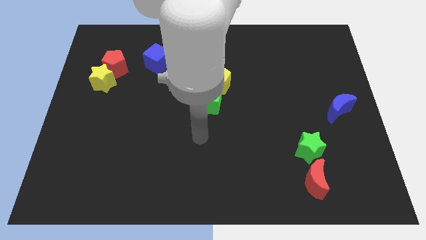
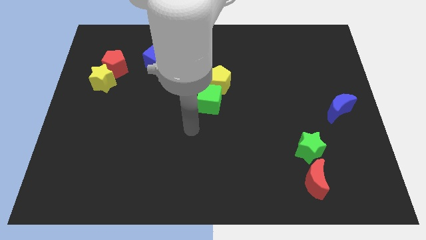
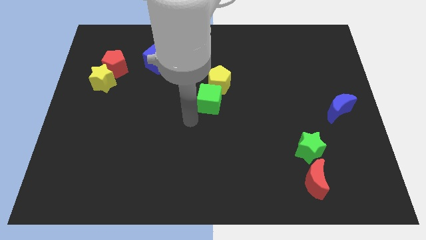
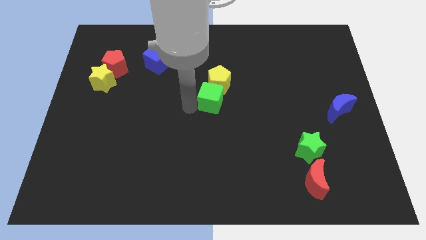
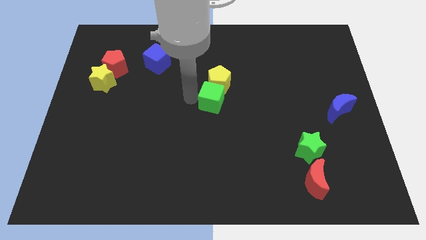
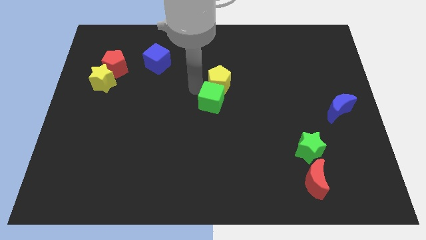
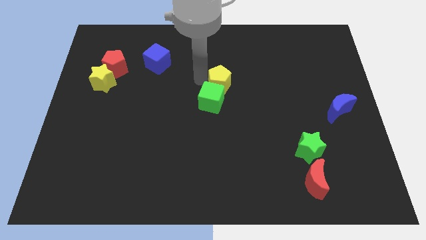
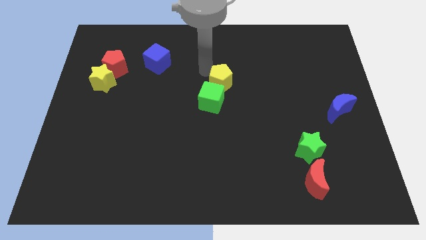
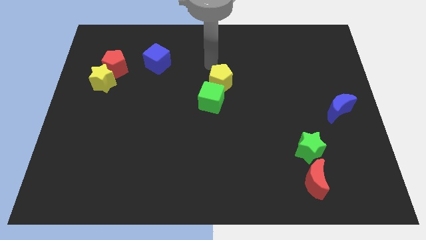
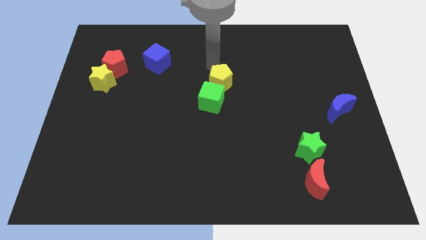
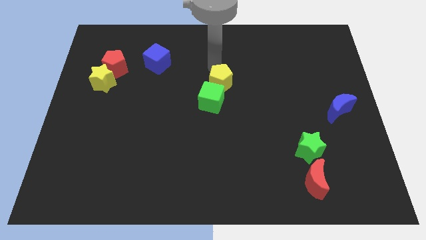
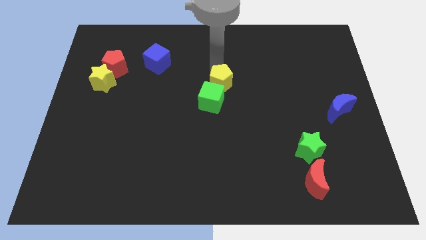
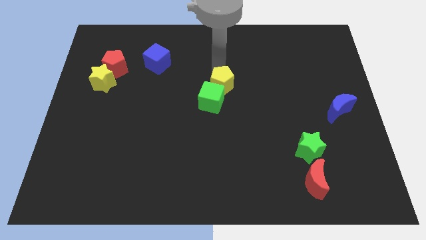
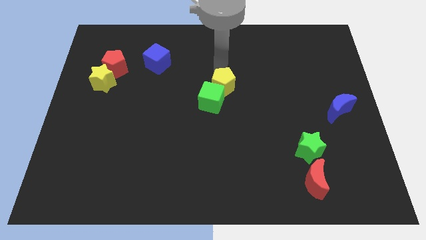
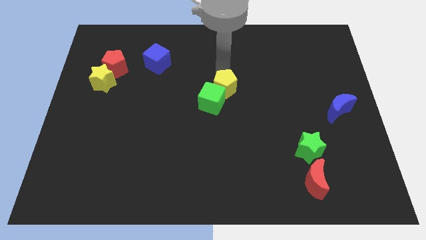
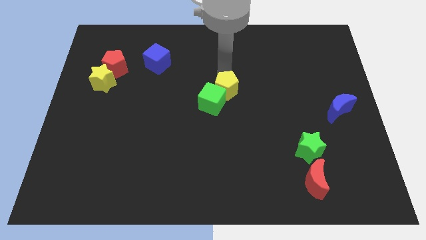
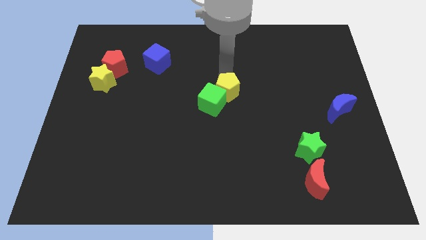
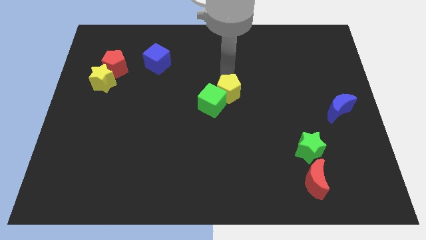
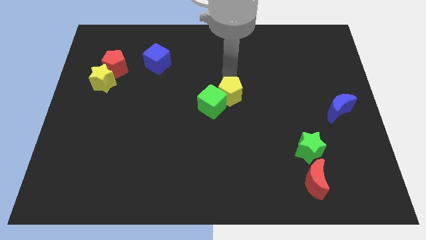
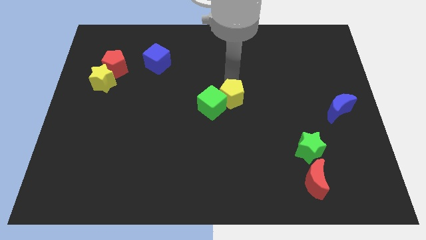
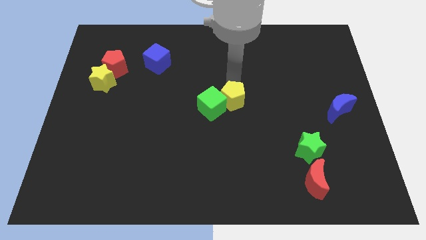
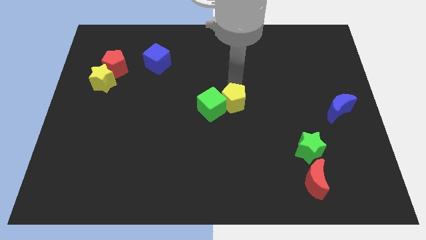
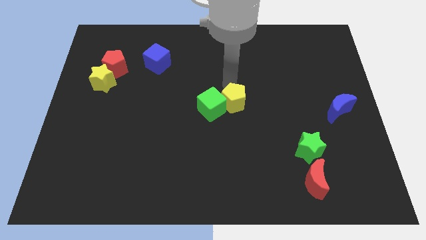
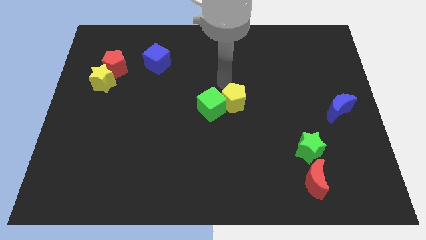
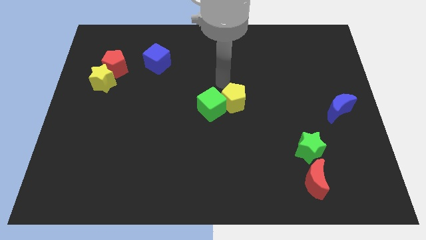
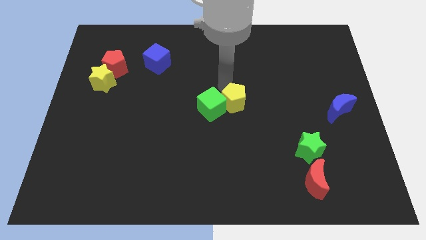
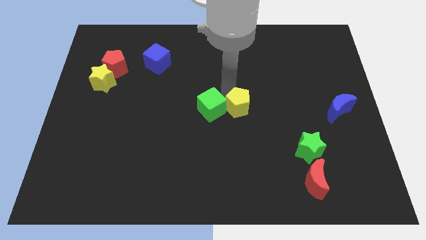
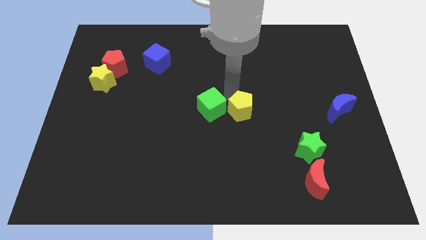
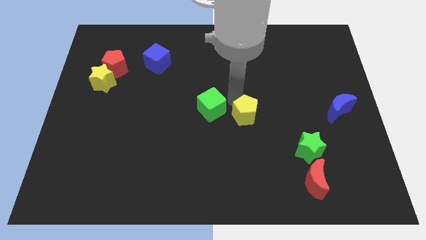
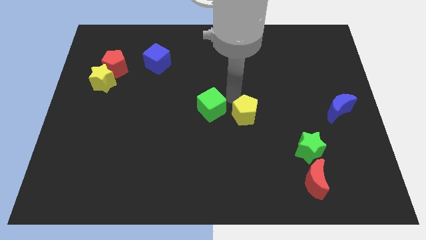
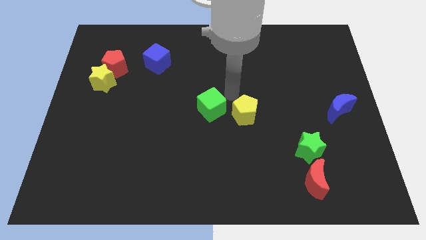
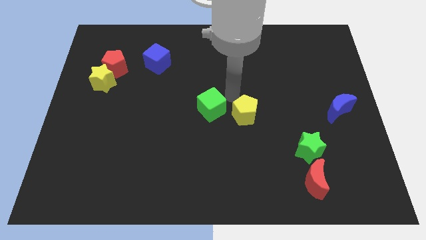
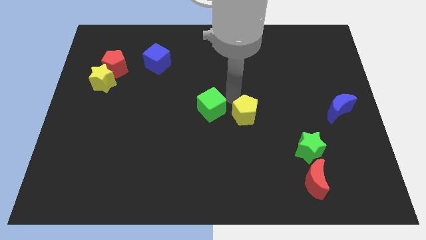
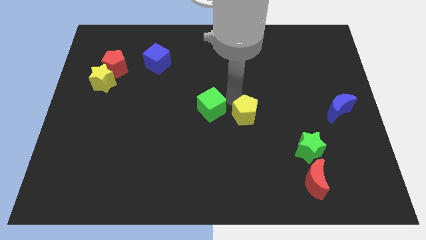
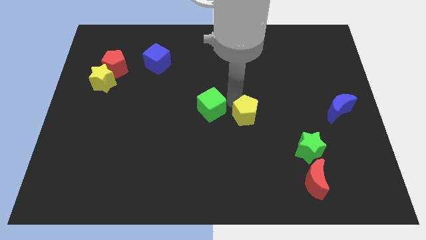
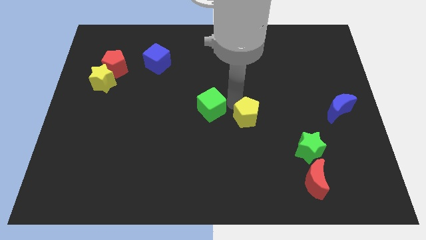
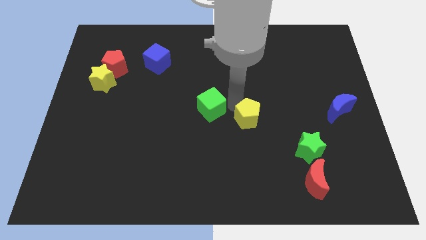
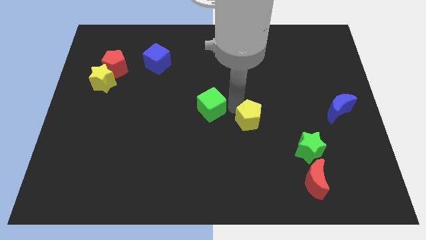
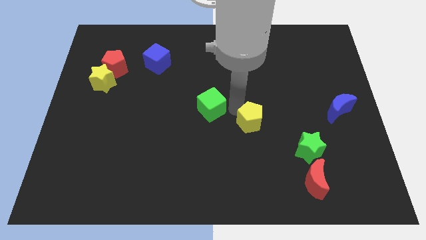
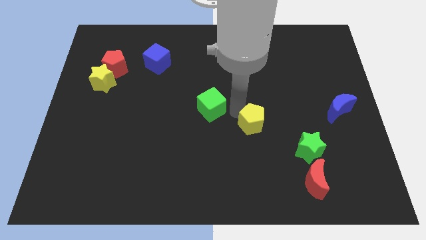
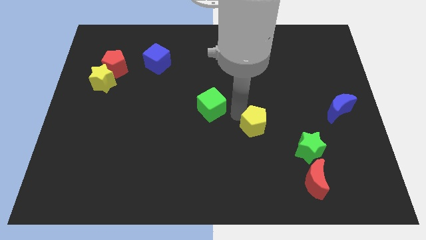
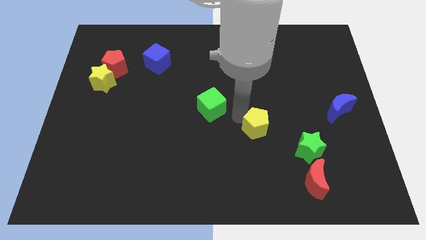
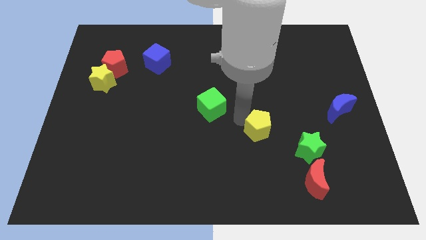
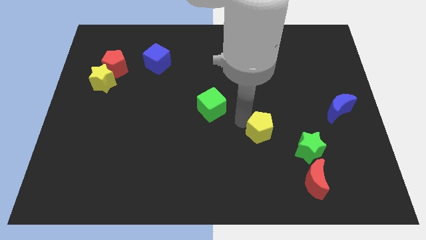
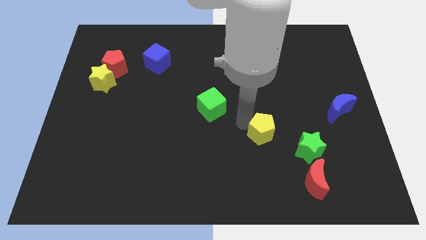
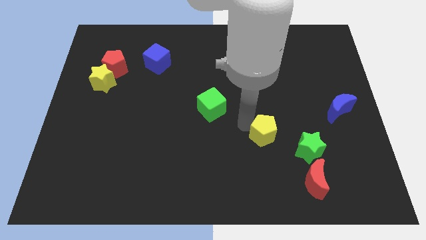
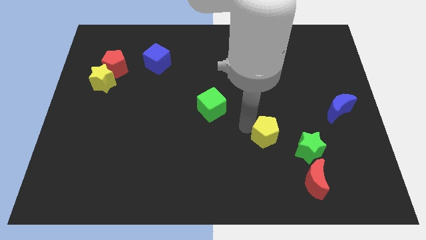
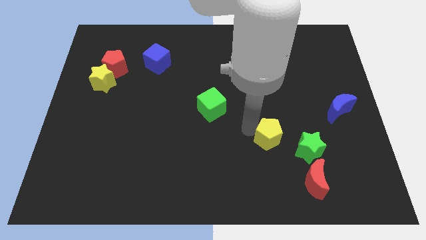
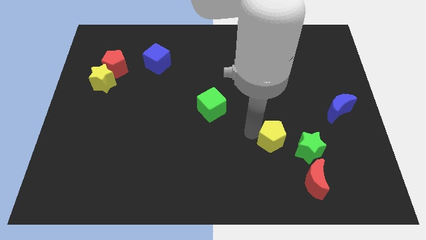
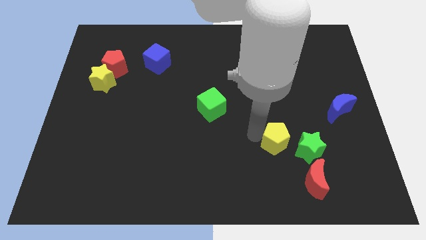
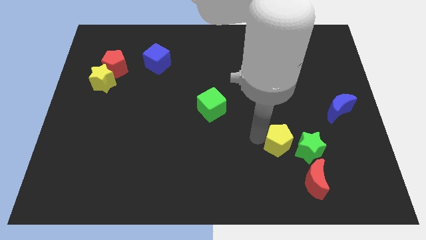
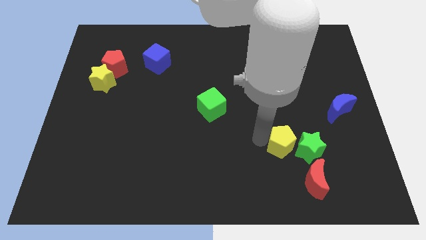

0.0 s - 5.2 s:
put the yellow pentagon towards the green star

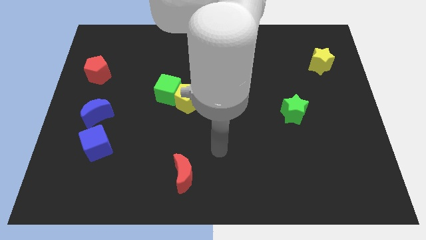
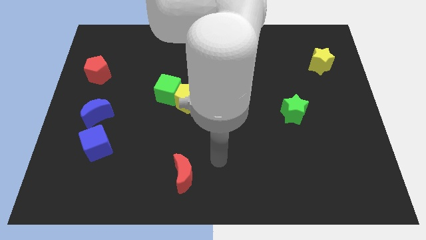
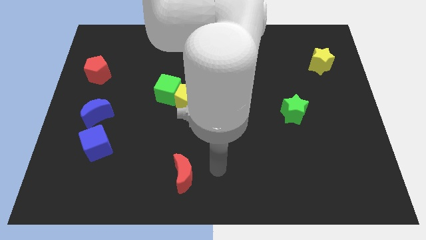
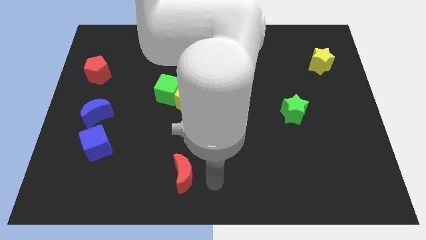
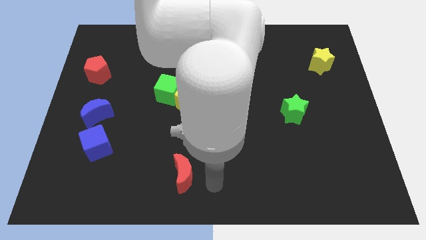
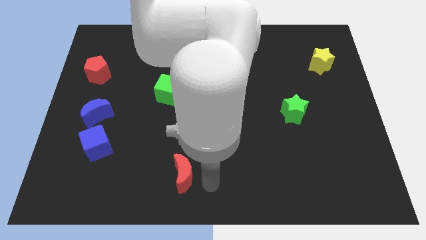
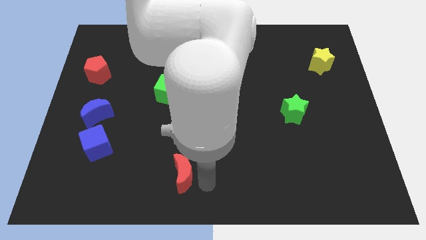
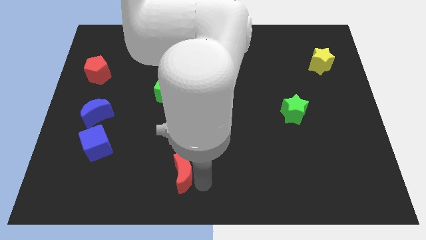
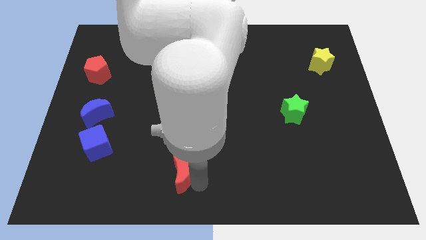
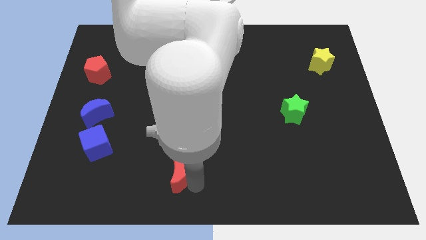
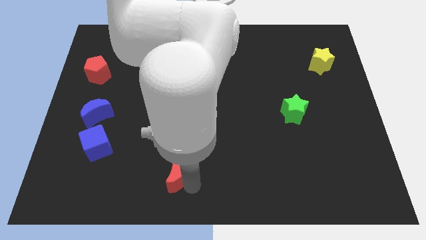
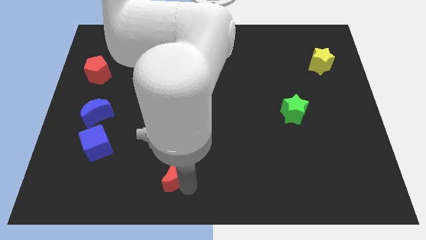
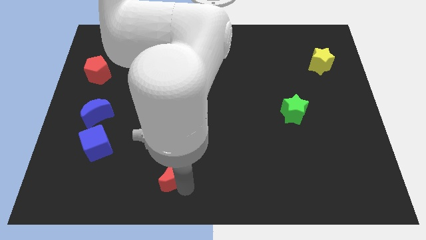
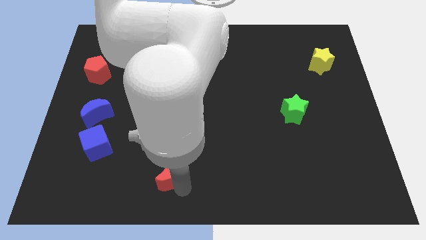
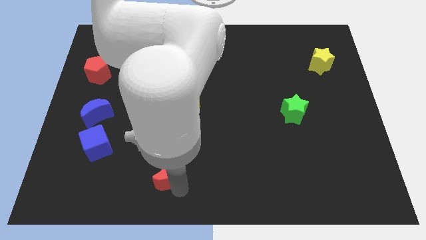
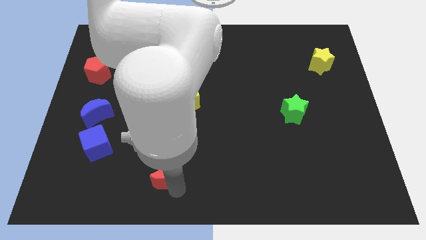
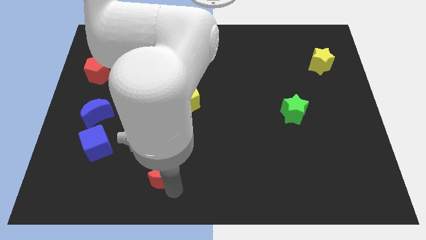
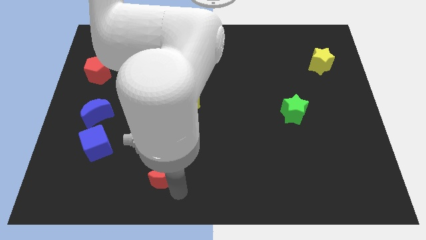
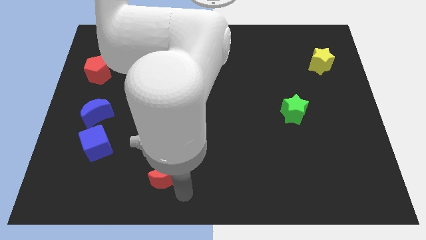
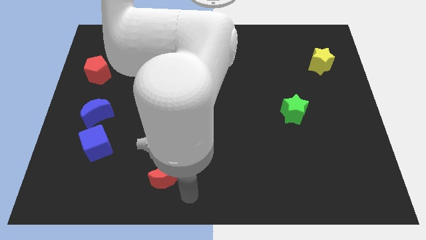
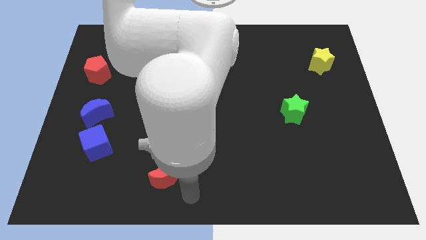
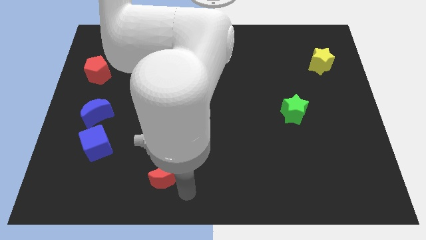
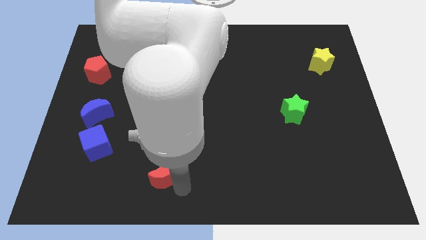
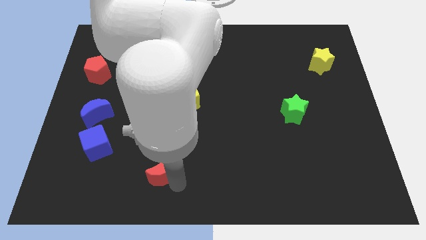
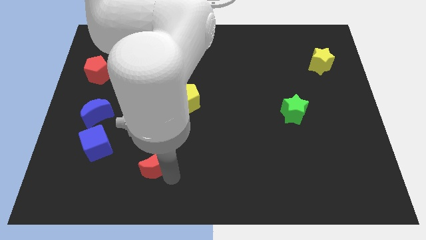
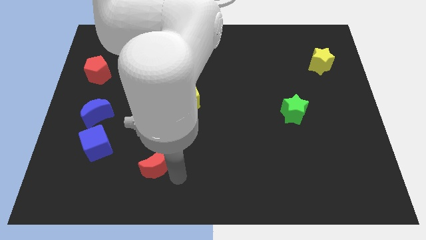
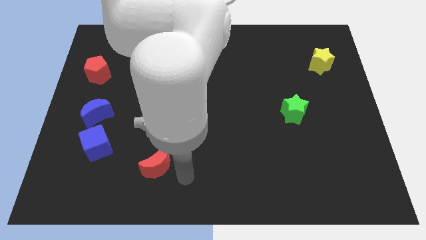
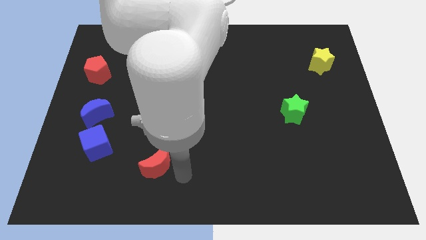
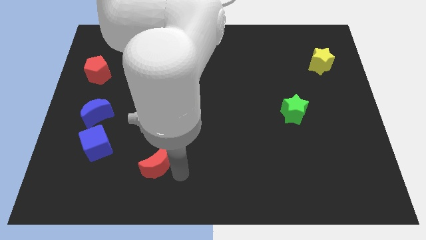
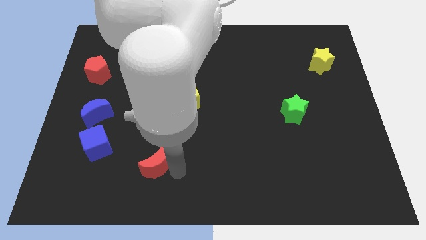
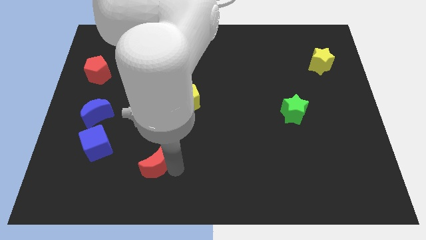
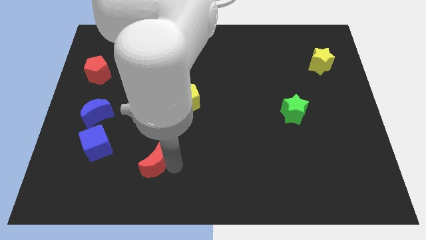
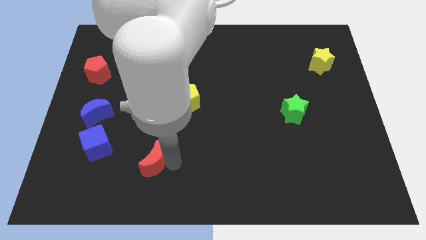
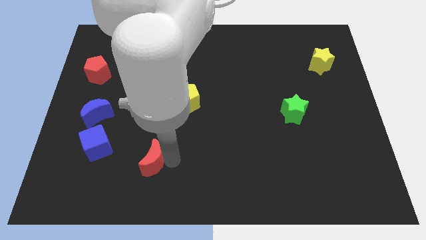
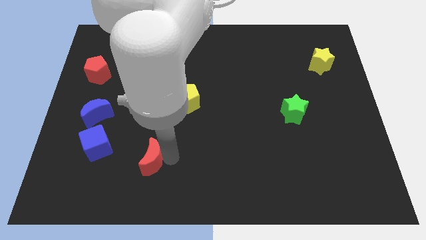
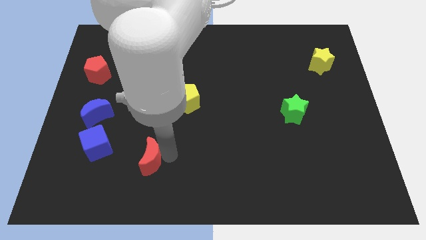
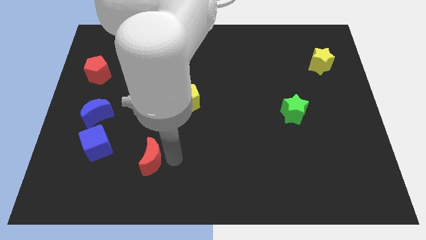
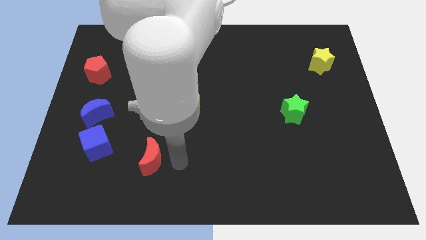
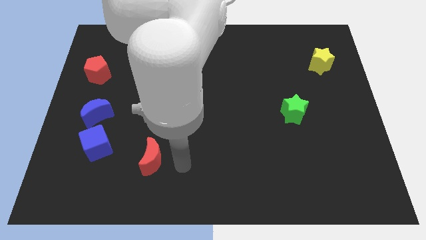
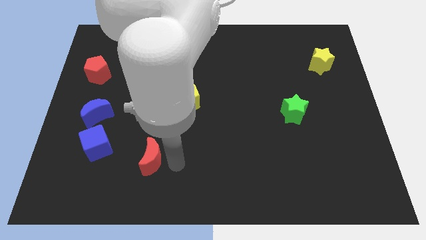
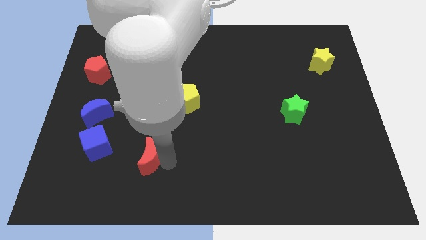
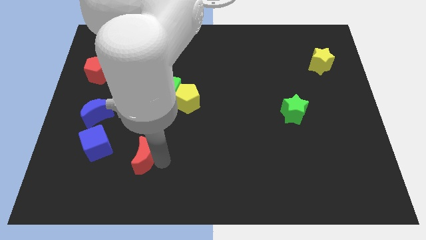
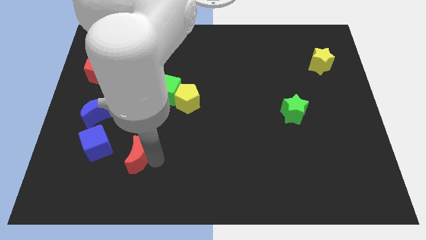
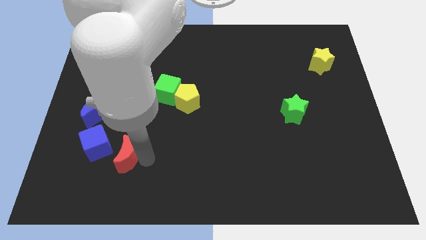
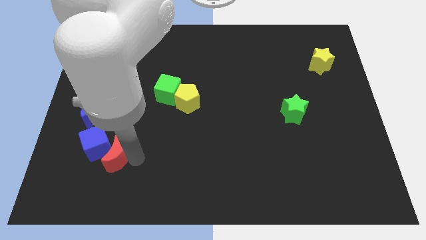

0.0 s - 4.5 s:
put the red moon next to the blue cube
